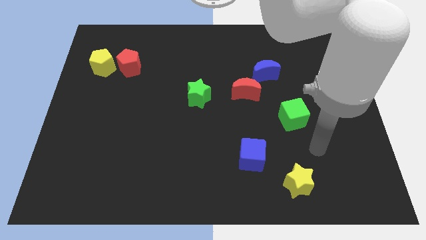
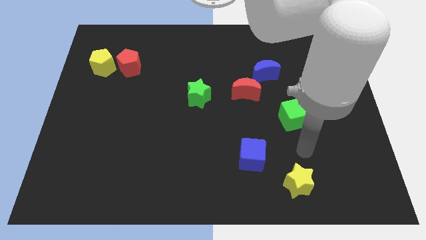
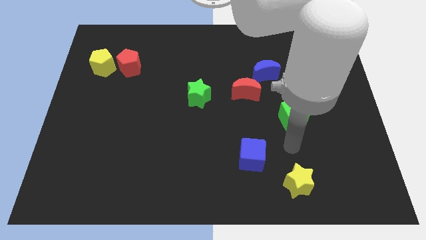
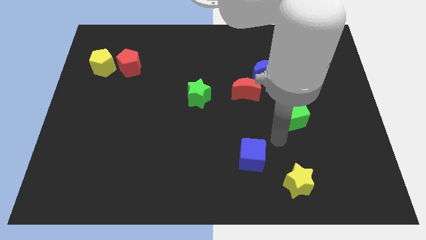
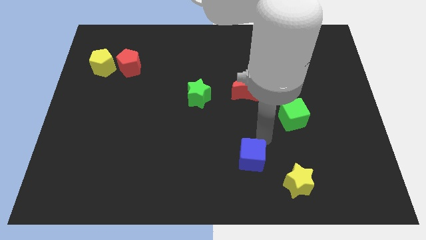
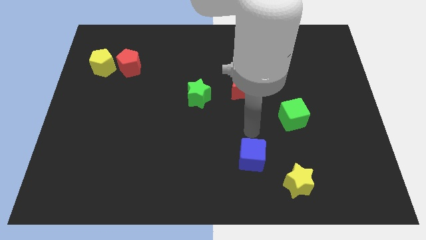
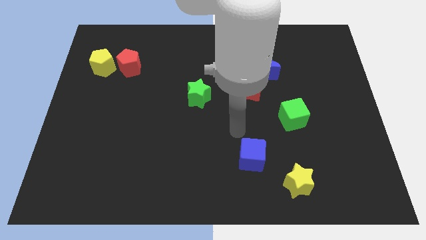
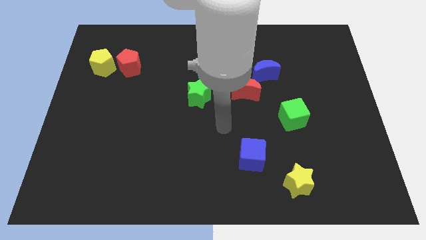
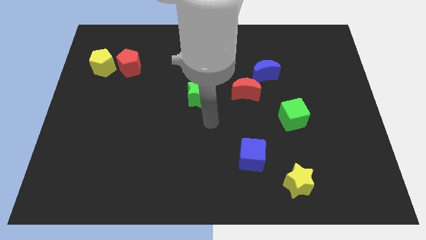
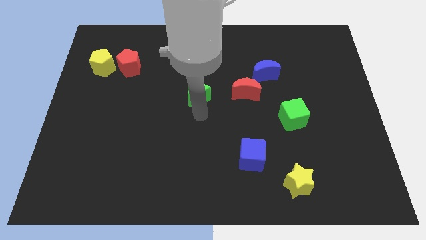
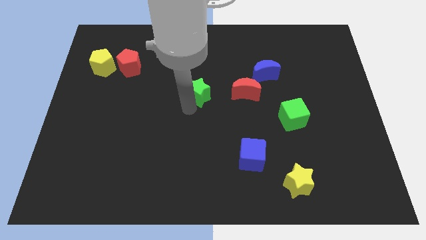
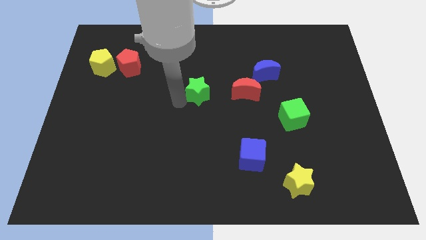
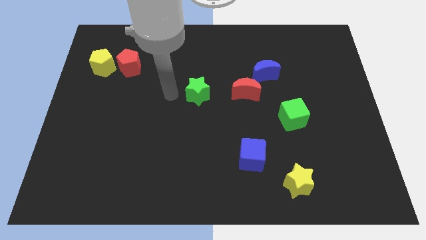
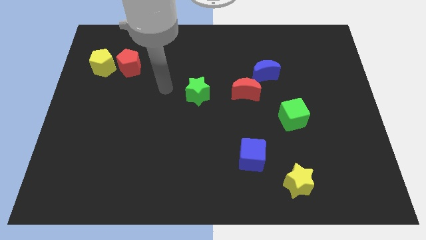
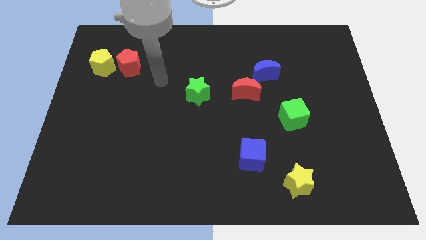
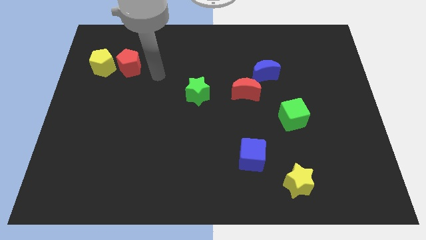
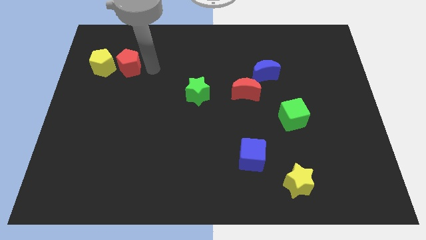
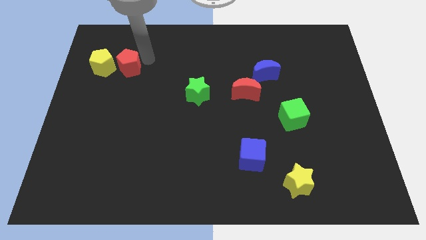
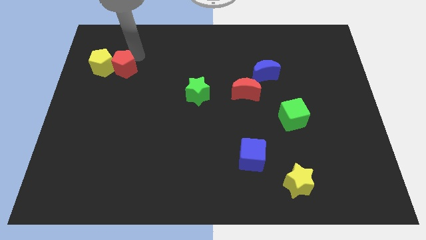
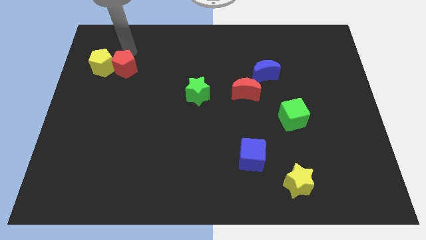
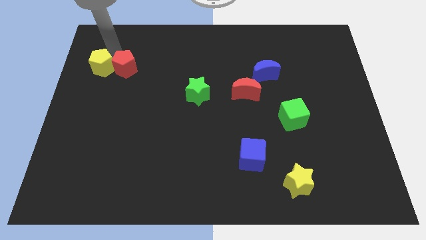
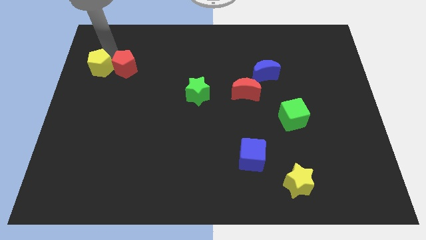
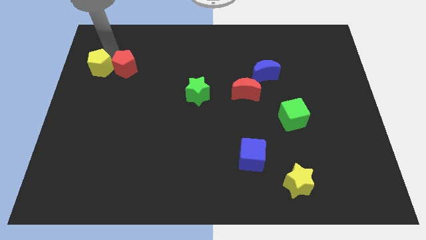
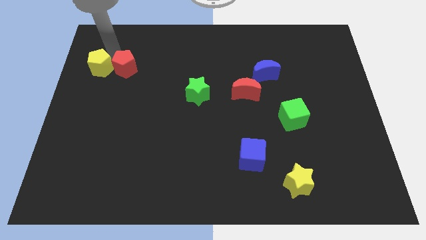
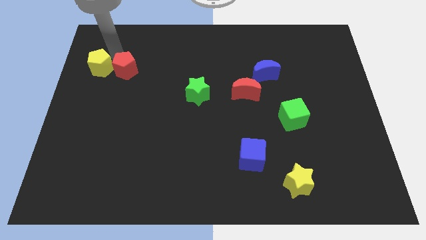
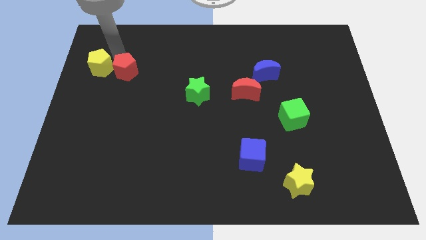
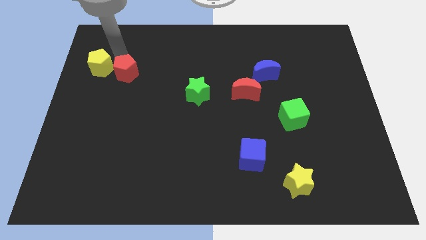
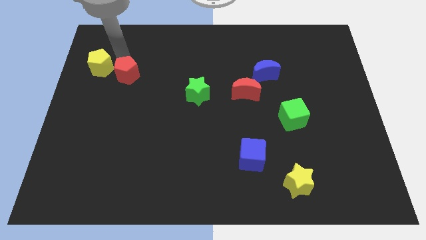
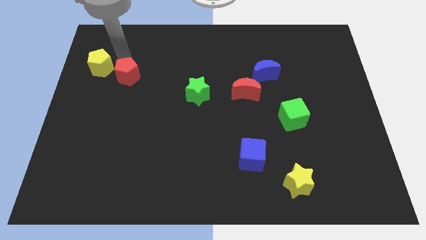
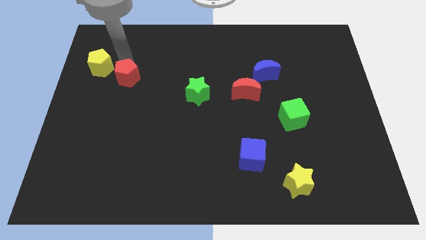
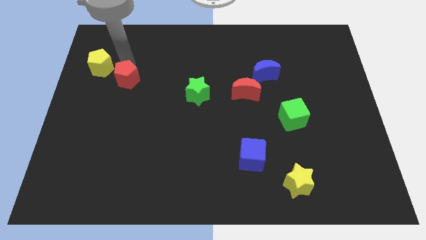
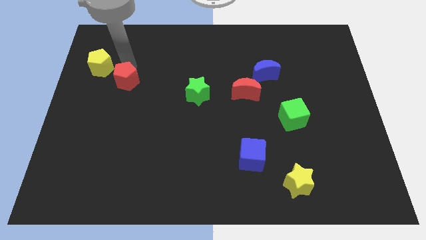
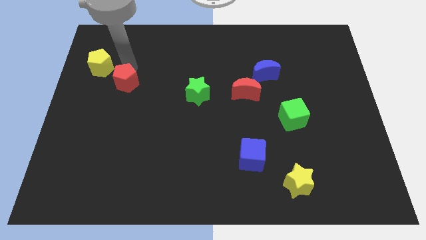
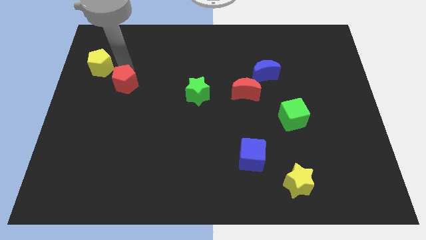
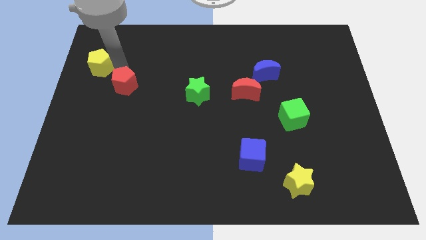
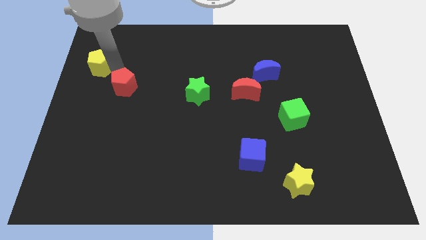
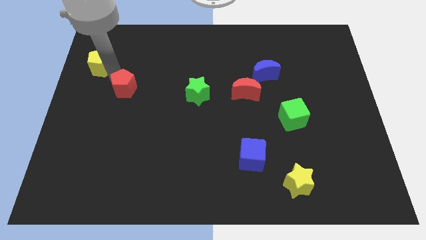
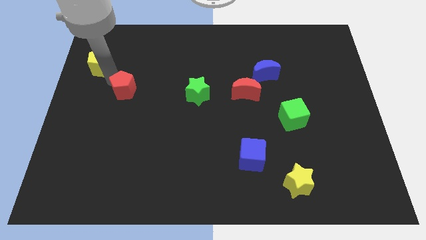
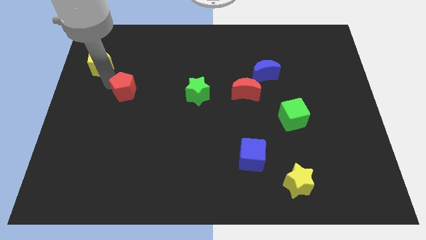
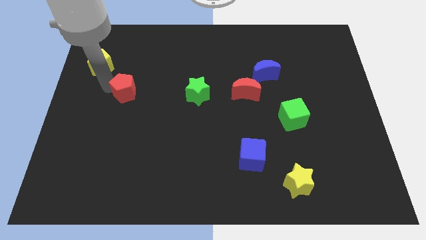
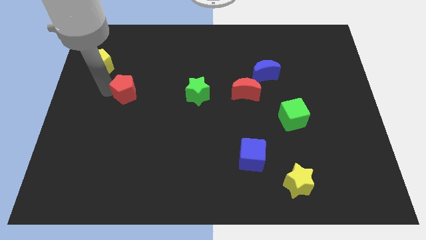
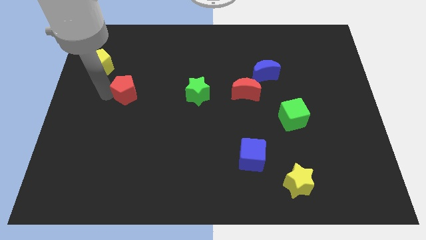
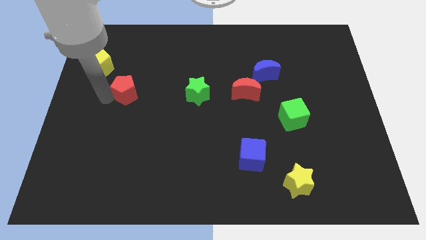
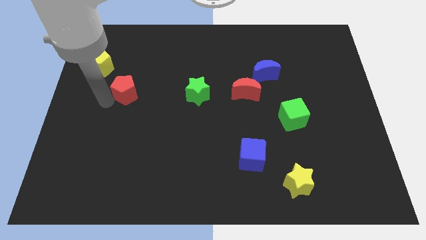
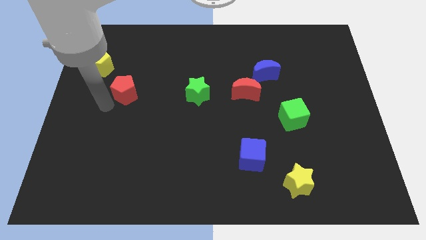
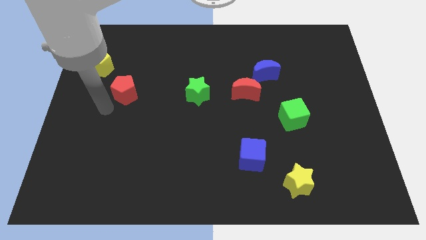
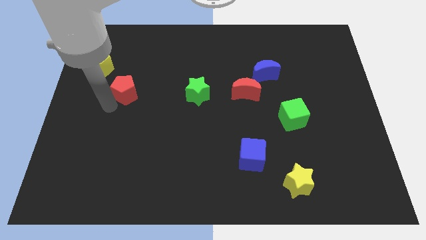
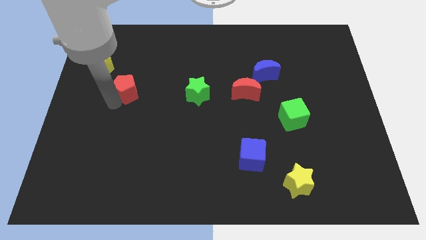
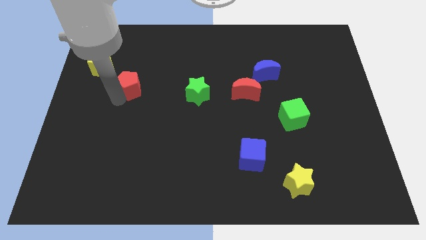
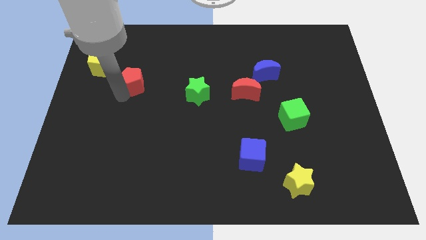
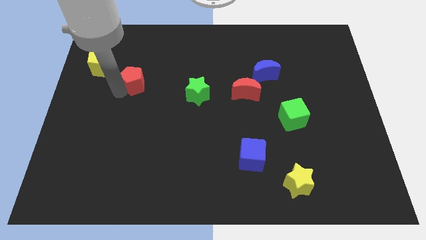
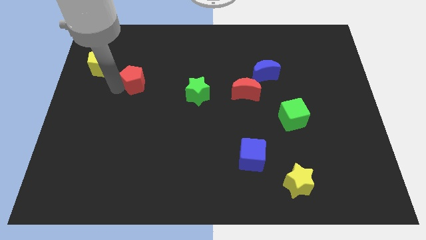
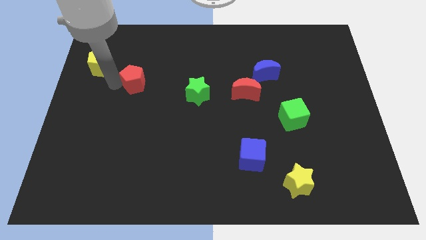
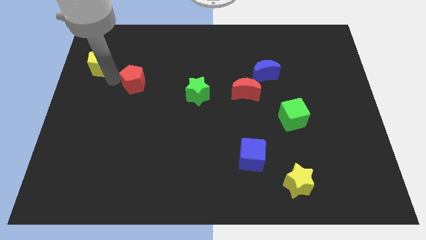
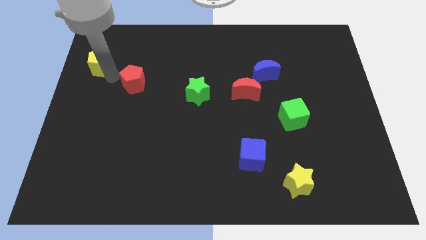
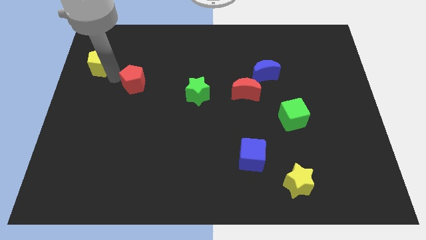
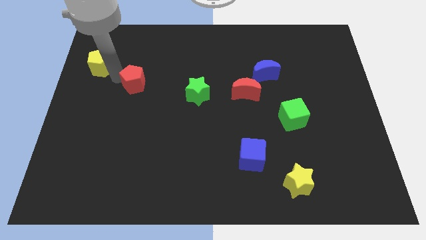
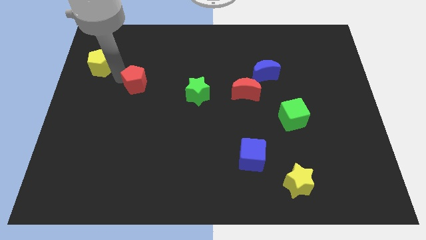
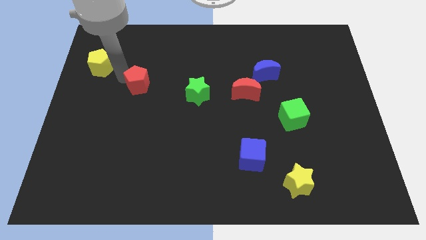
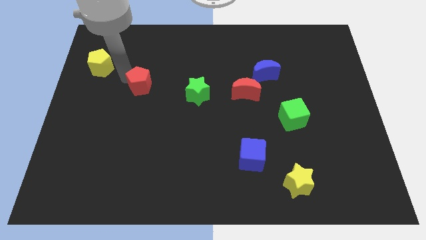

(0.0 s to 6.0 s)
slide the red pentagon a little down and right diagonally

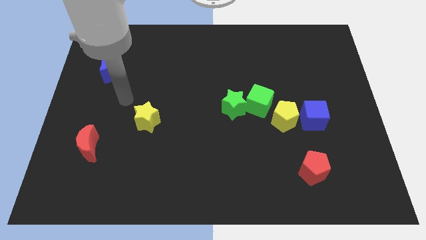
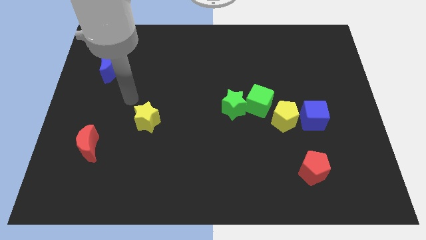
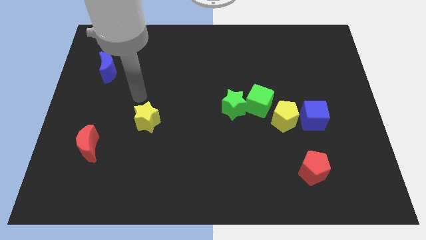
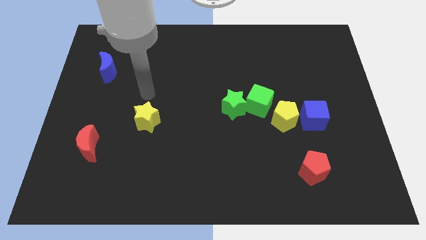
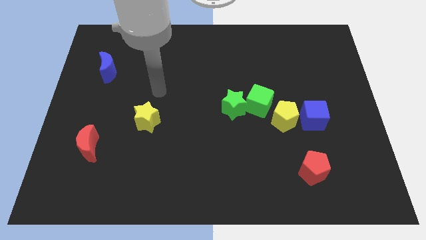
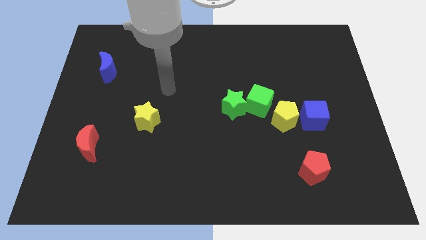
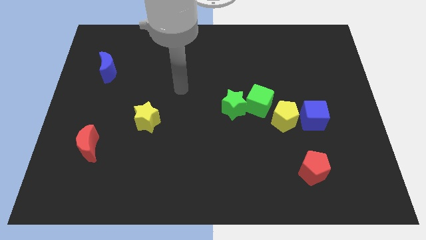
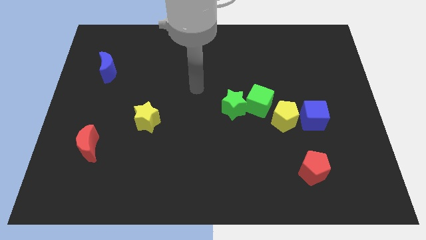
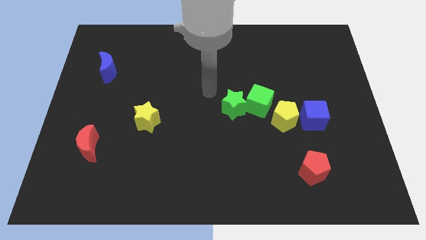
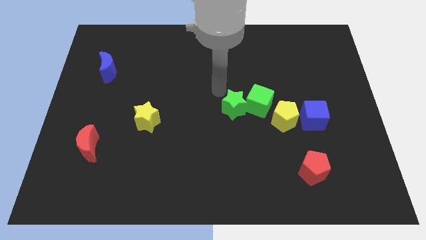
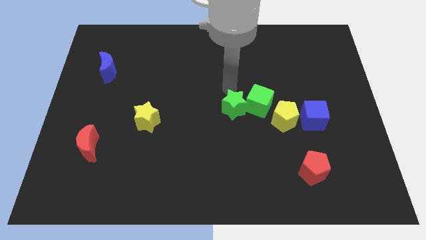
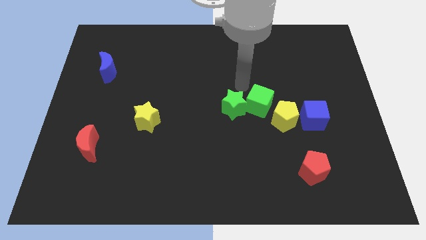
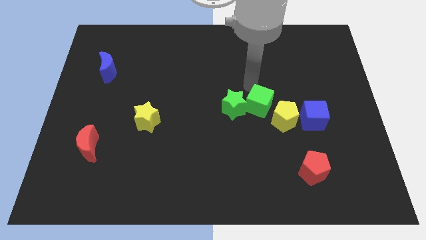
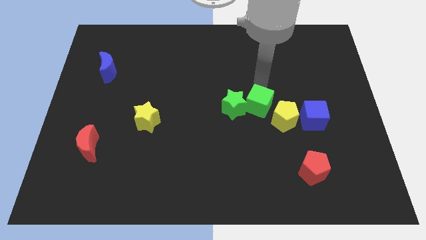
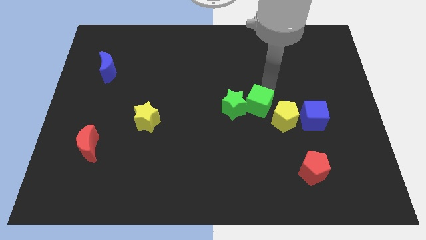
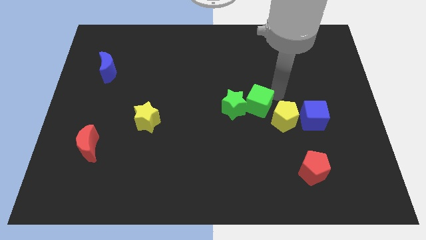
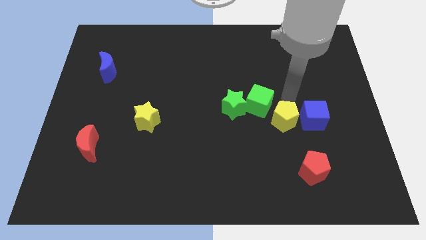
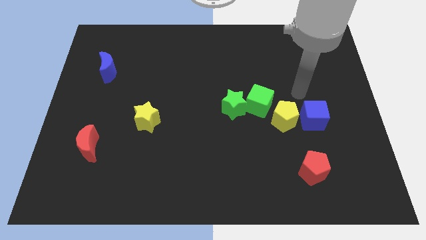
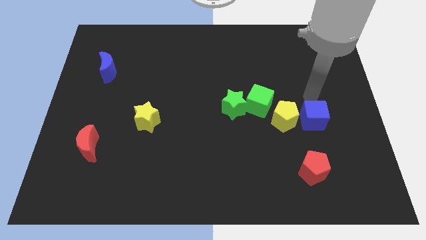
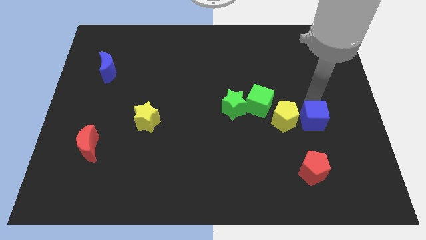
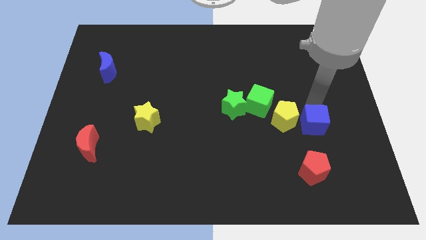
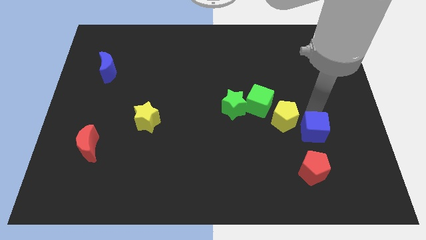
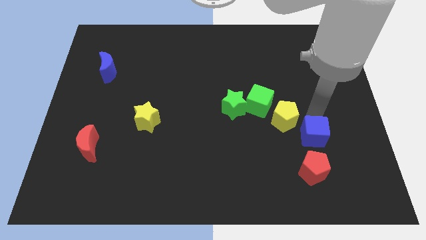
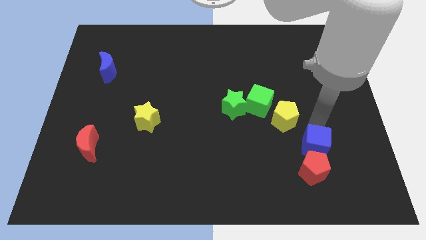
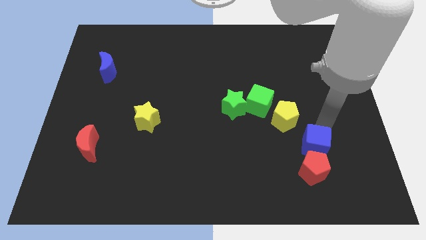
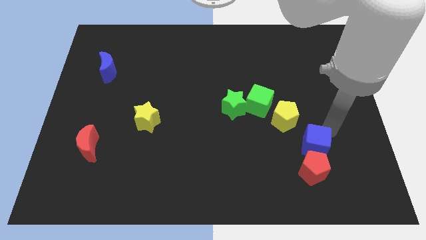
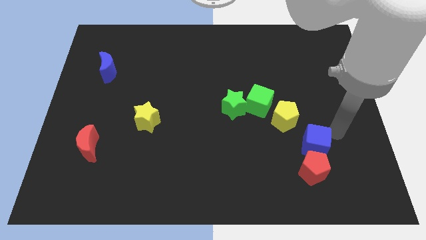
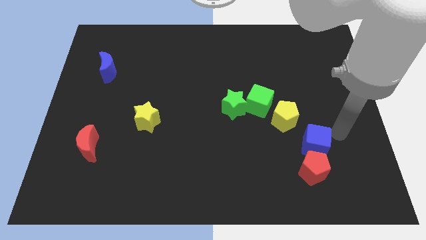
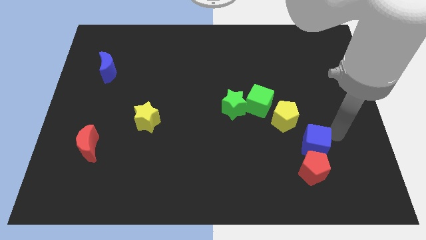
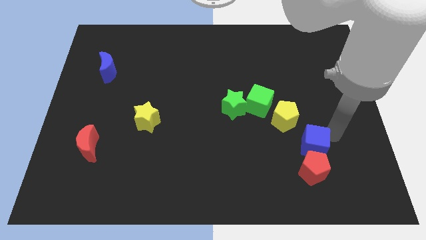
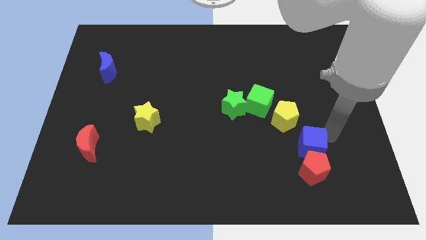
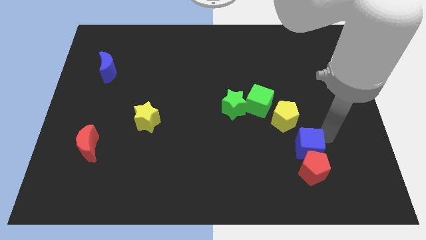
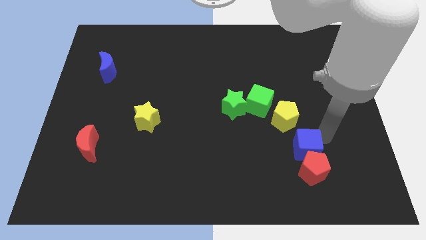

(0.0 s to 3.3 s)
move the blue cube slightly downwards and left diagonally
